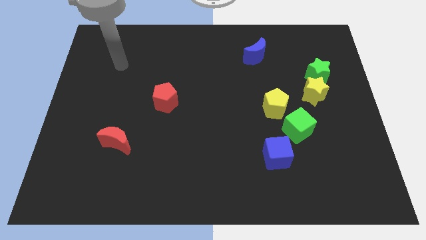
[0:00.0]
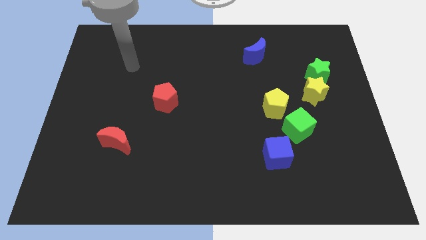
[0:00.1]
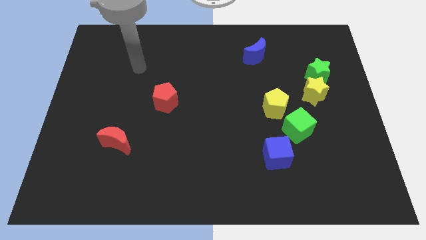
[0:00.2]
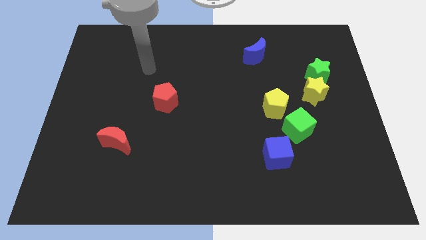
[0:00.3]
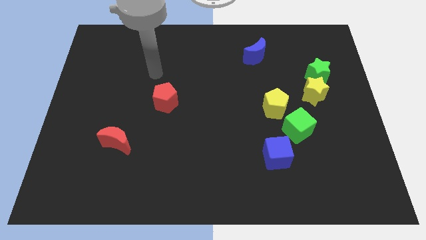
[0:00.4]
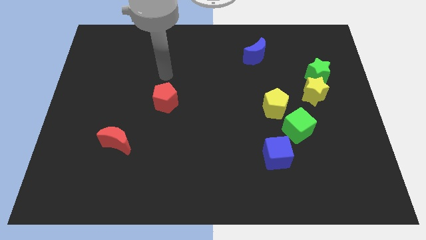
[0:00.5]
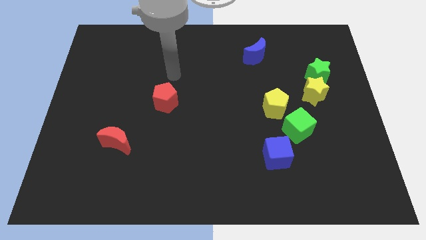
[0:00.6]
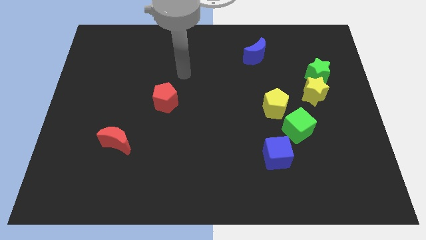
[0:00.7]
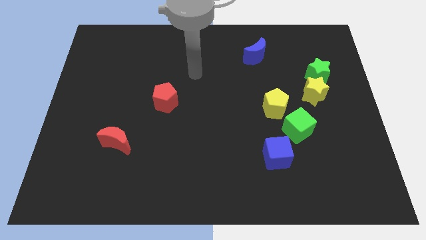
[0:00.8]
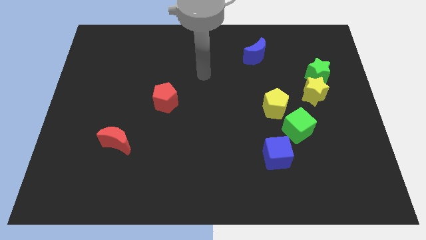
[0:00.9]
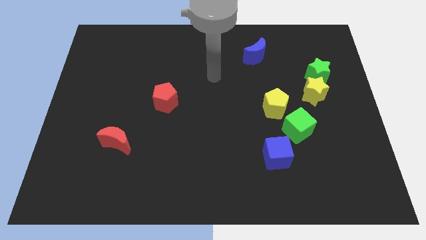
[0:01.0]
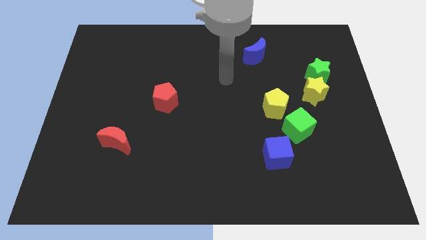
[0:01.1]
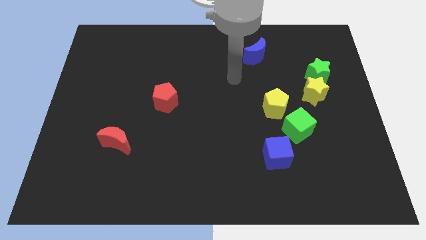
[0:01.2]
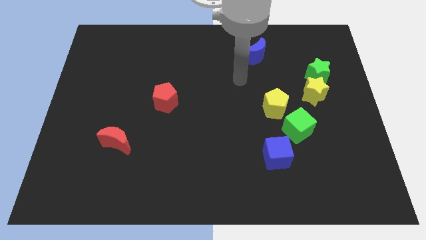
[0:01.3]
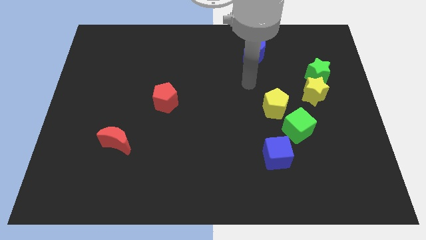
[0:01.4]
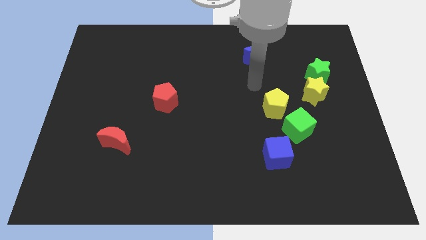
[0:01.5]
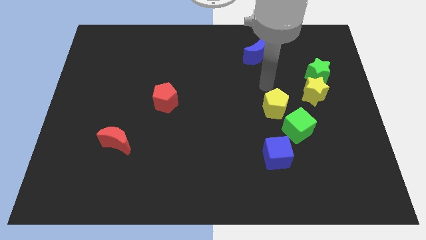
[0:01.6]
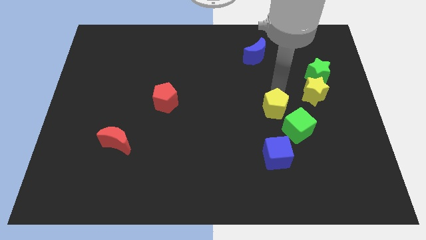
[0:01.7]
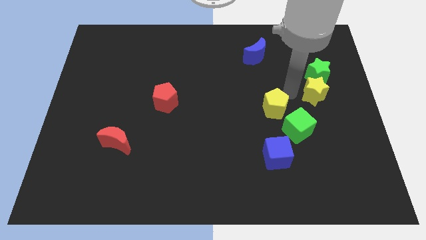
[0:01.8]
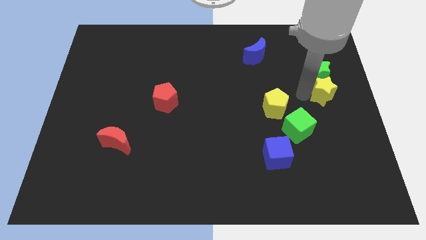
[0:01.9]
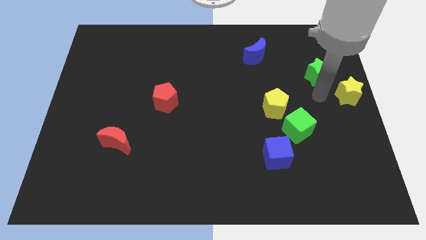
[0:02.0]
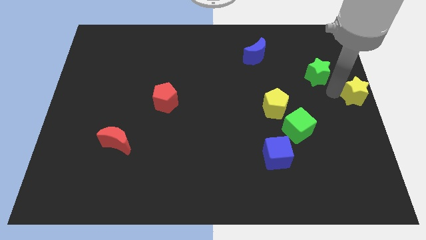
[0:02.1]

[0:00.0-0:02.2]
separate the green star from the yellow star

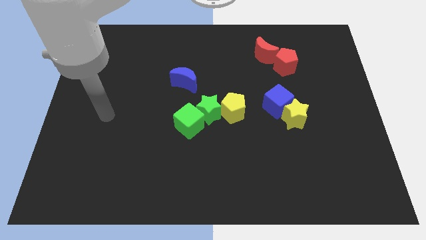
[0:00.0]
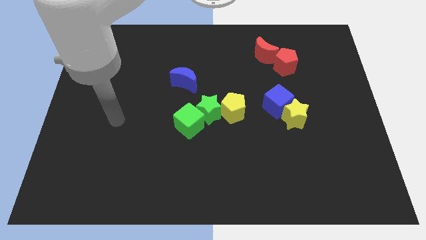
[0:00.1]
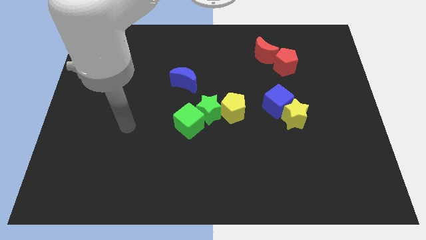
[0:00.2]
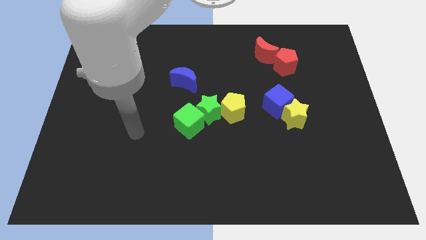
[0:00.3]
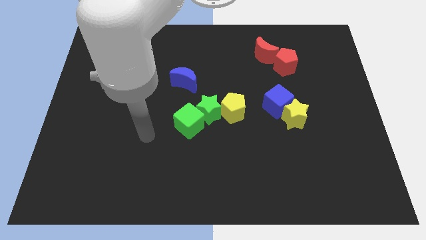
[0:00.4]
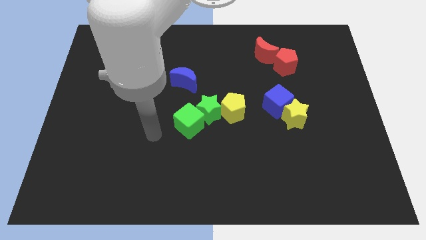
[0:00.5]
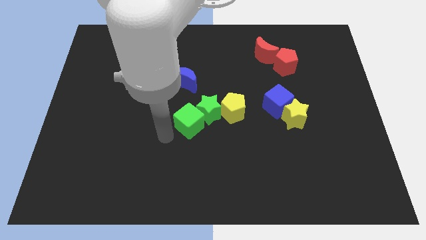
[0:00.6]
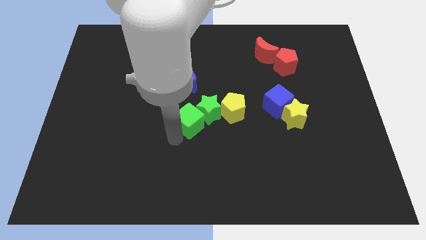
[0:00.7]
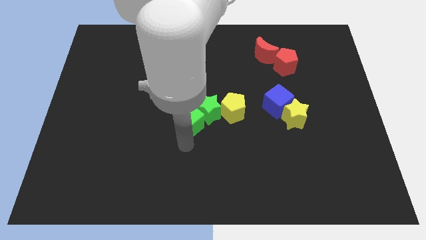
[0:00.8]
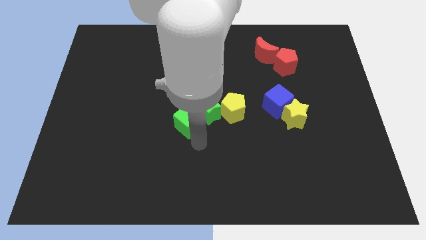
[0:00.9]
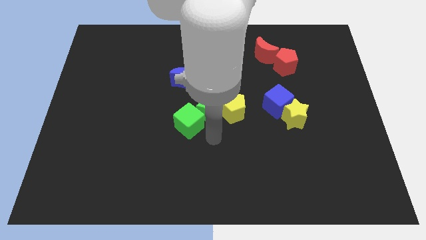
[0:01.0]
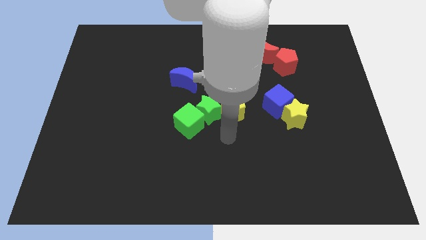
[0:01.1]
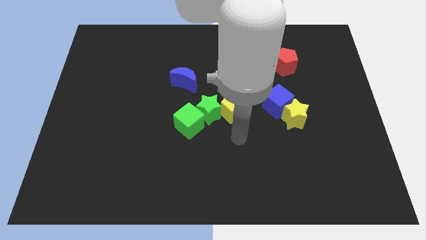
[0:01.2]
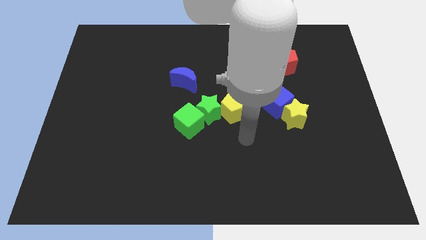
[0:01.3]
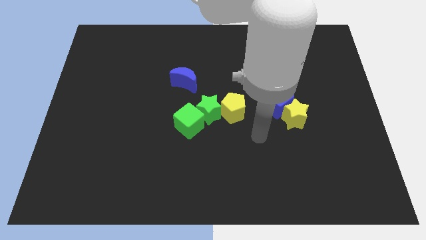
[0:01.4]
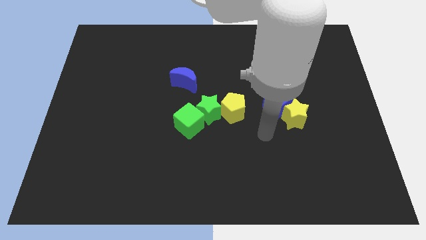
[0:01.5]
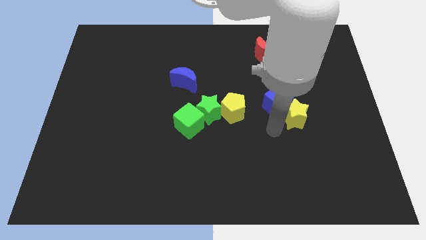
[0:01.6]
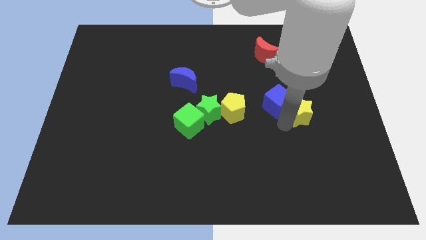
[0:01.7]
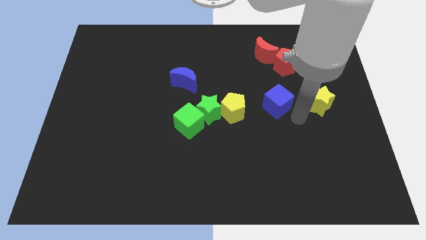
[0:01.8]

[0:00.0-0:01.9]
pull the blue cube apart from the yellow star

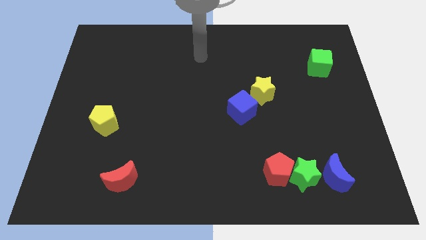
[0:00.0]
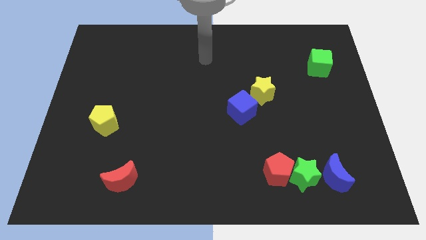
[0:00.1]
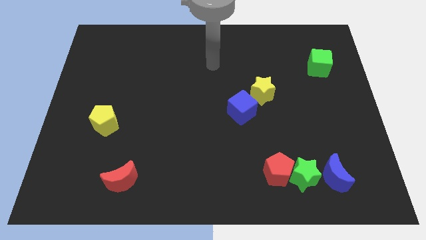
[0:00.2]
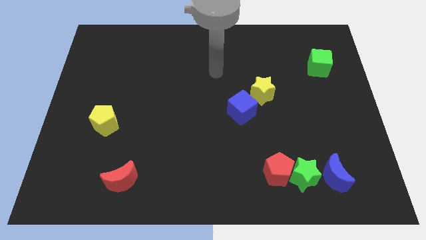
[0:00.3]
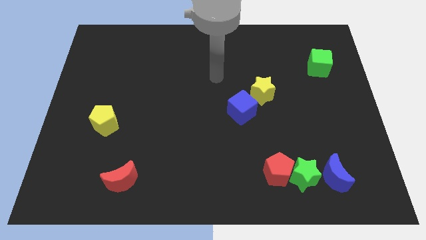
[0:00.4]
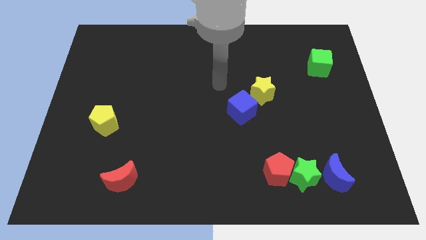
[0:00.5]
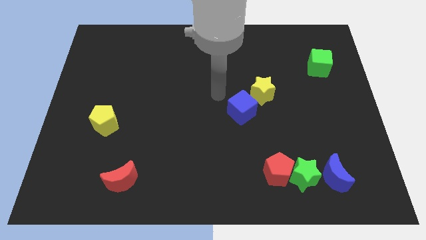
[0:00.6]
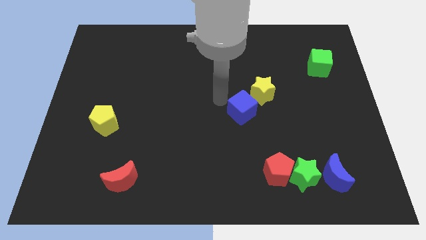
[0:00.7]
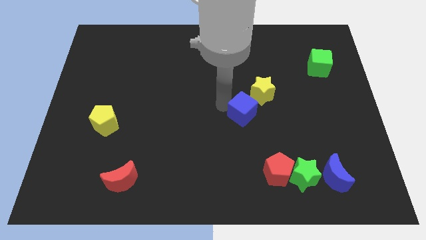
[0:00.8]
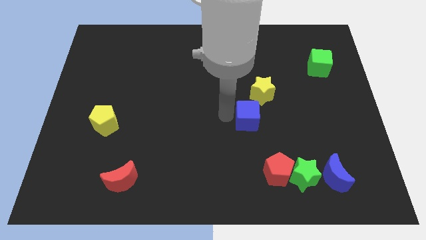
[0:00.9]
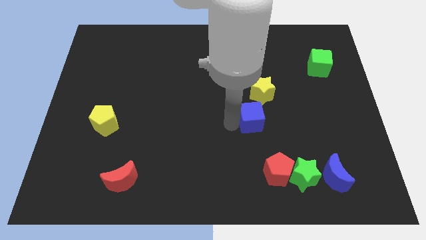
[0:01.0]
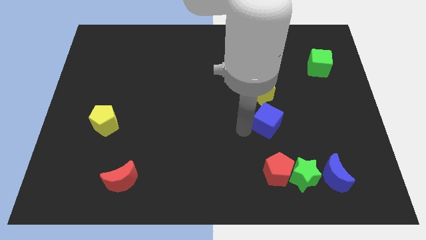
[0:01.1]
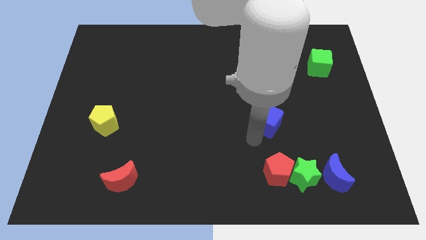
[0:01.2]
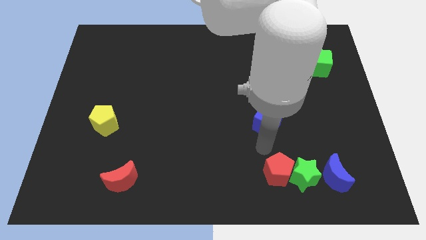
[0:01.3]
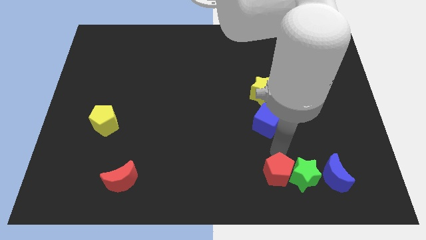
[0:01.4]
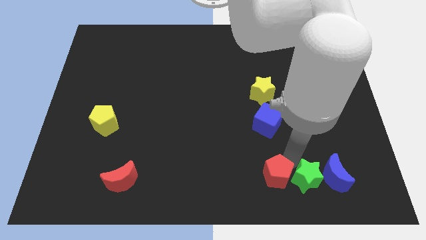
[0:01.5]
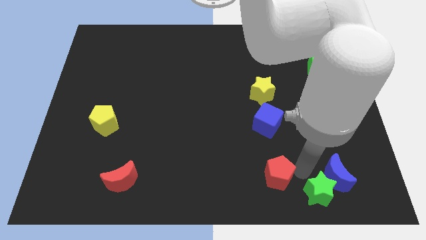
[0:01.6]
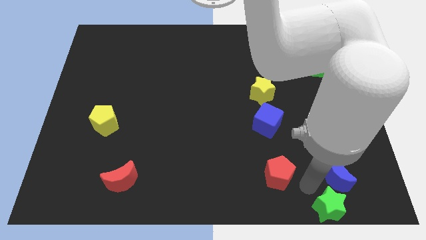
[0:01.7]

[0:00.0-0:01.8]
separate the red pentagon from the green star

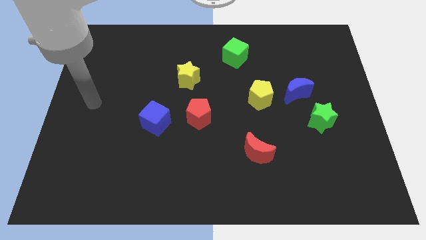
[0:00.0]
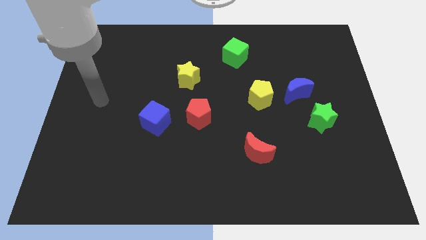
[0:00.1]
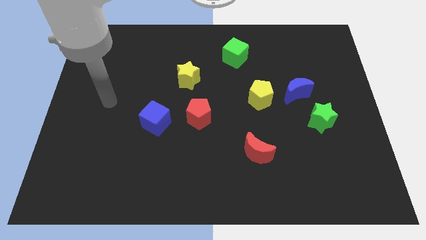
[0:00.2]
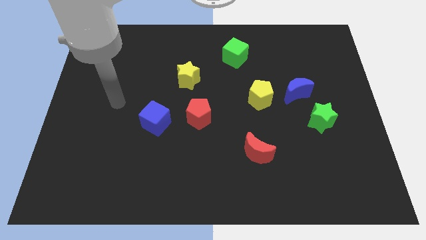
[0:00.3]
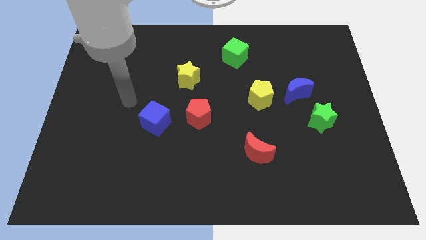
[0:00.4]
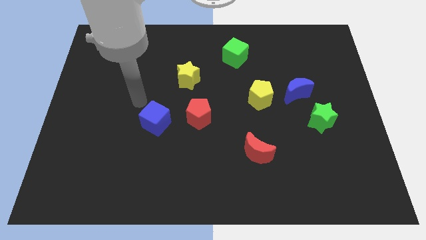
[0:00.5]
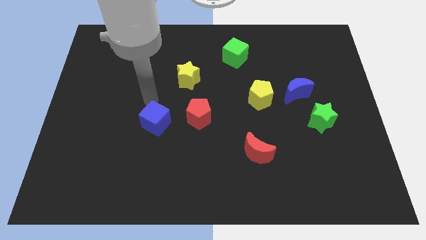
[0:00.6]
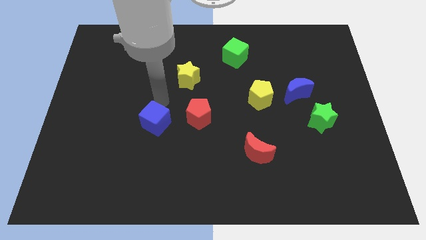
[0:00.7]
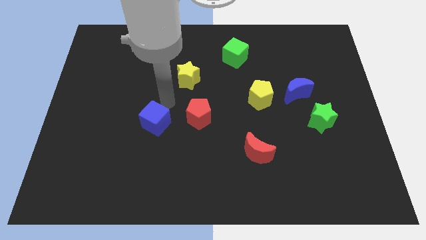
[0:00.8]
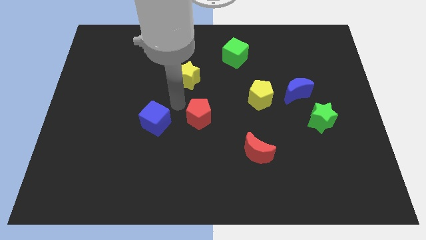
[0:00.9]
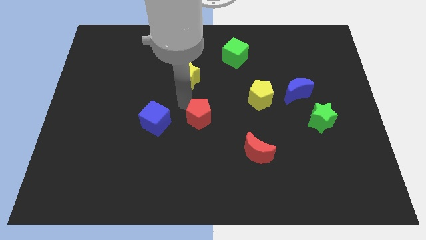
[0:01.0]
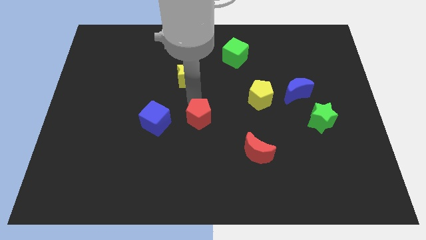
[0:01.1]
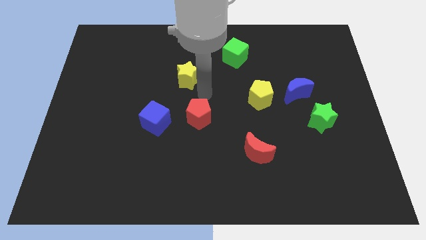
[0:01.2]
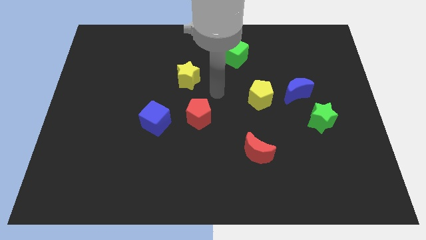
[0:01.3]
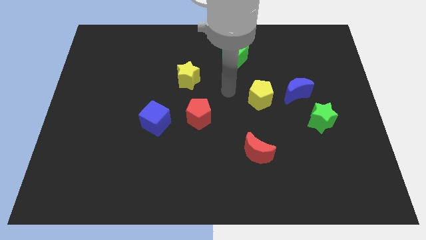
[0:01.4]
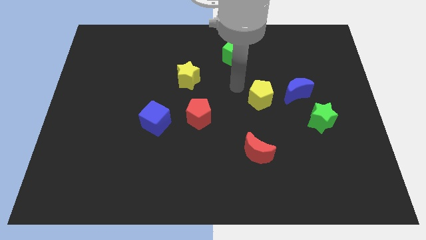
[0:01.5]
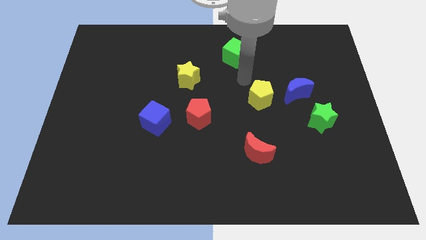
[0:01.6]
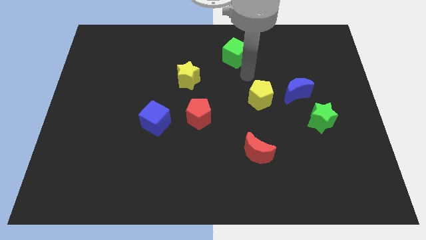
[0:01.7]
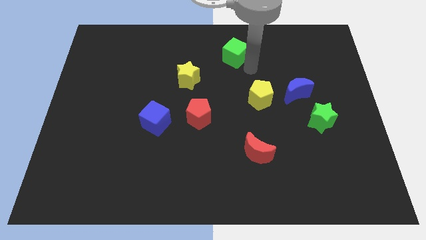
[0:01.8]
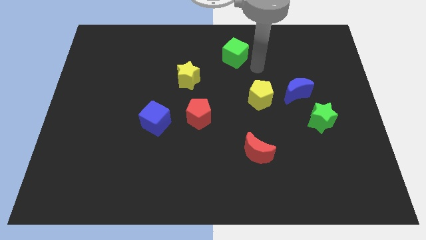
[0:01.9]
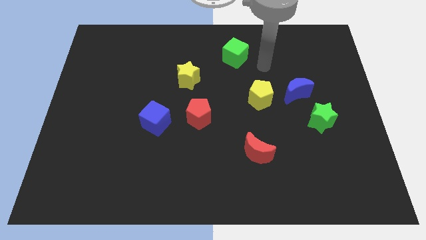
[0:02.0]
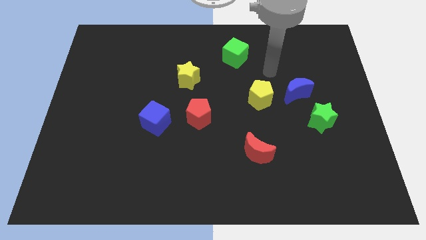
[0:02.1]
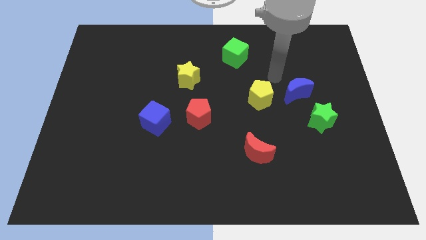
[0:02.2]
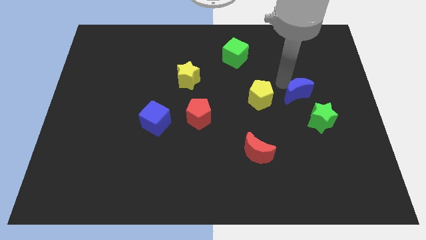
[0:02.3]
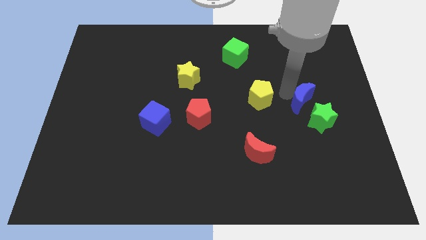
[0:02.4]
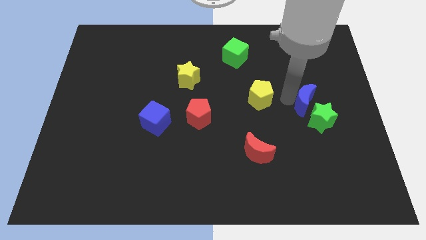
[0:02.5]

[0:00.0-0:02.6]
move the yellow pentagon away from the blue moon

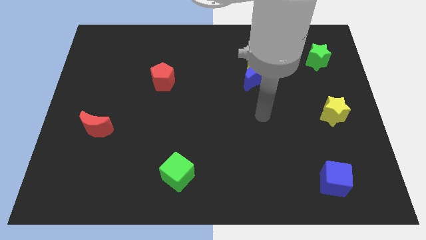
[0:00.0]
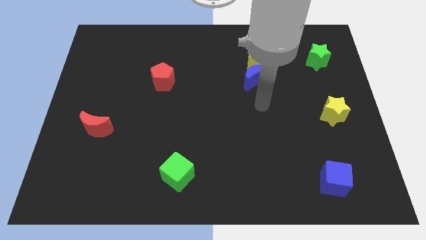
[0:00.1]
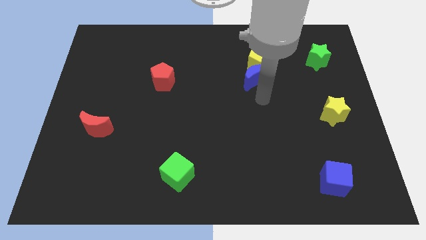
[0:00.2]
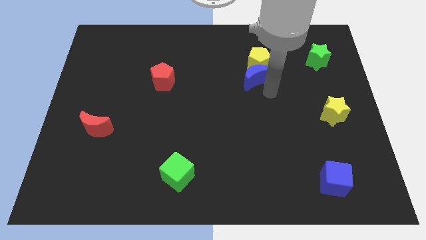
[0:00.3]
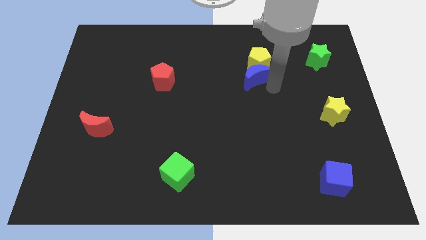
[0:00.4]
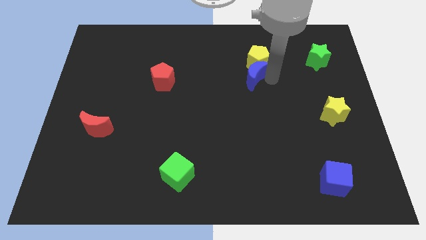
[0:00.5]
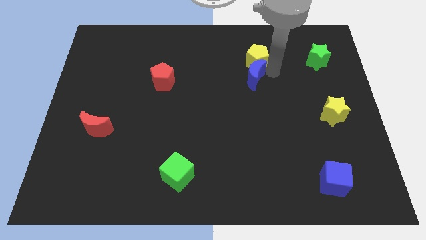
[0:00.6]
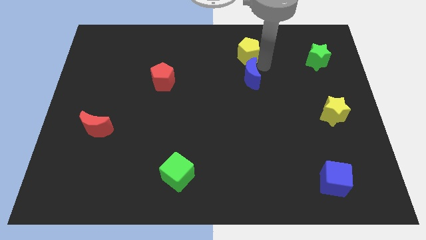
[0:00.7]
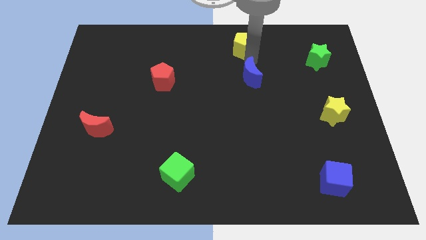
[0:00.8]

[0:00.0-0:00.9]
separate the blue moon from the yellow pentagon
